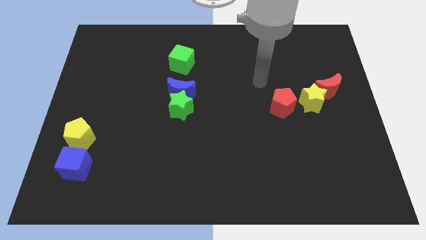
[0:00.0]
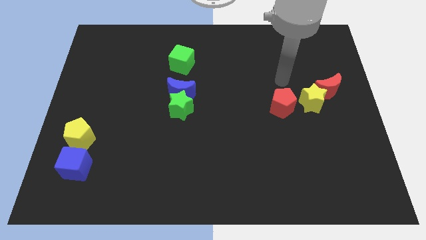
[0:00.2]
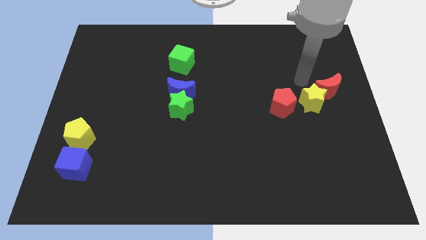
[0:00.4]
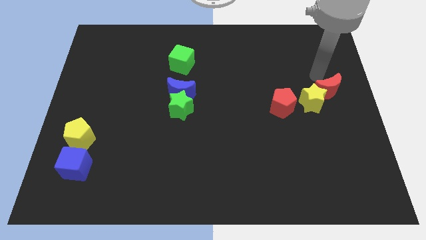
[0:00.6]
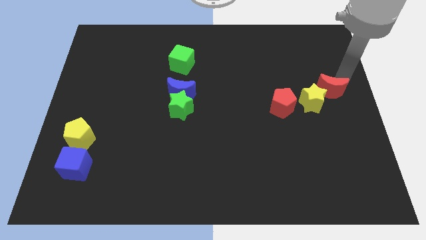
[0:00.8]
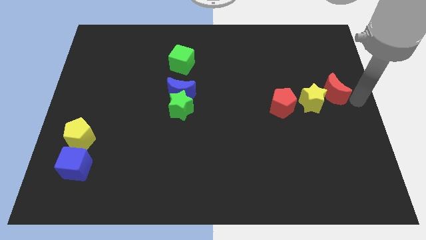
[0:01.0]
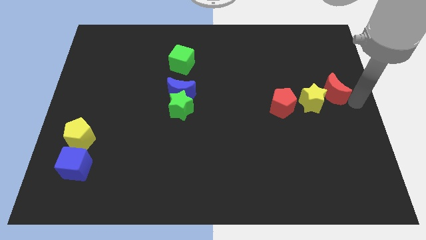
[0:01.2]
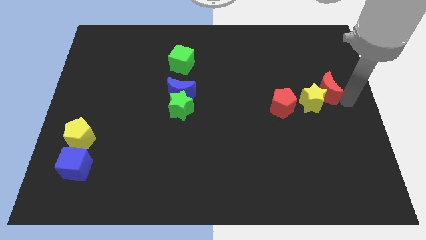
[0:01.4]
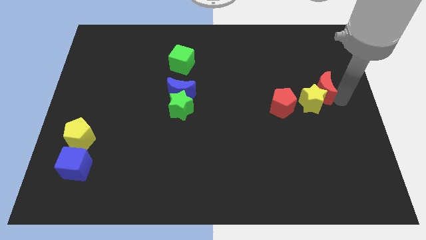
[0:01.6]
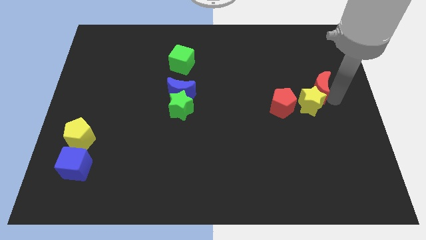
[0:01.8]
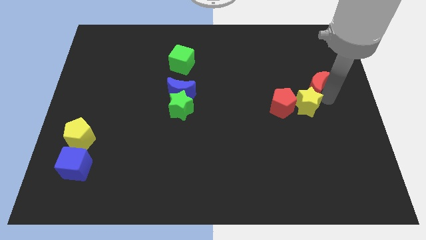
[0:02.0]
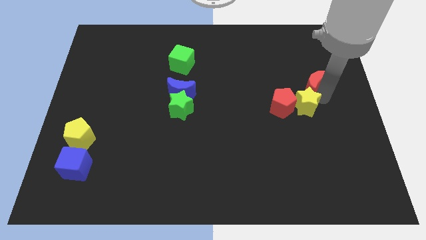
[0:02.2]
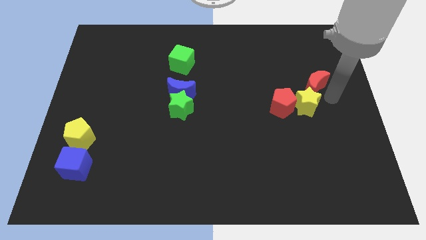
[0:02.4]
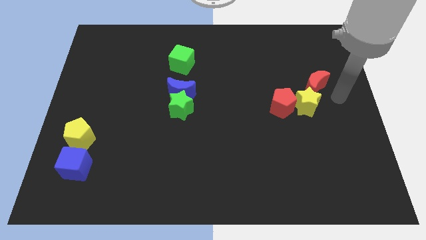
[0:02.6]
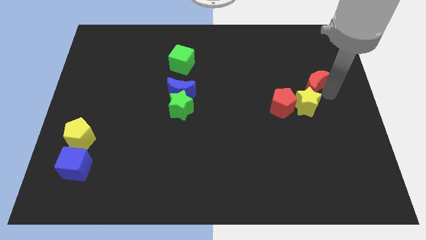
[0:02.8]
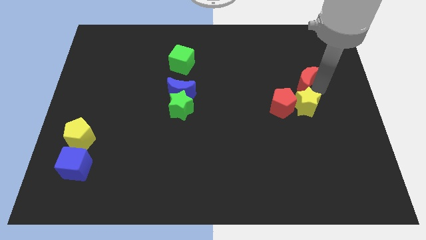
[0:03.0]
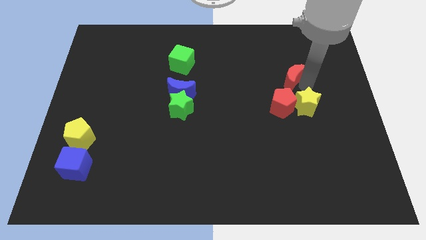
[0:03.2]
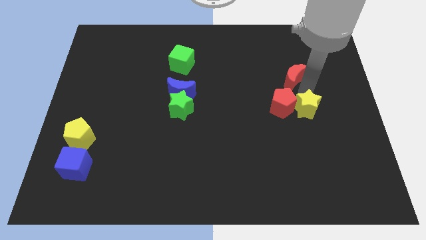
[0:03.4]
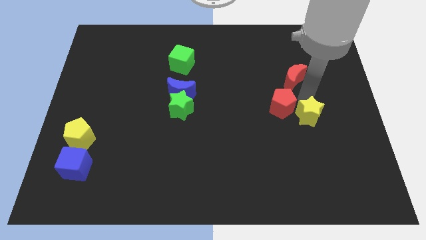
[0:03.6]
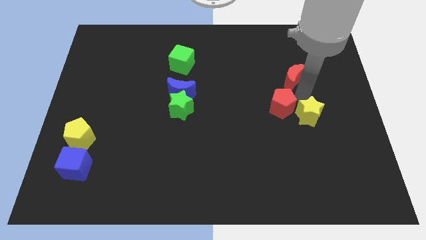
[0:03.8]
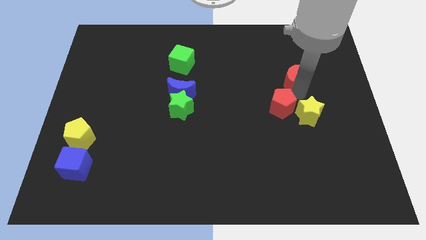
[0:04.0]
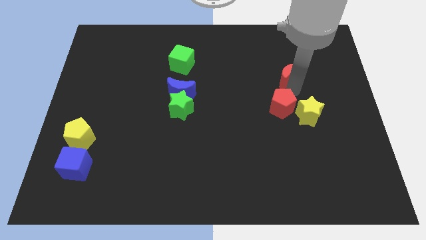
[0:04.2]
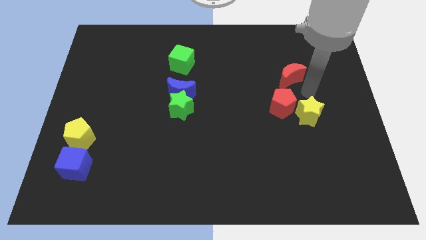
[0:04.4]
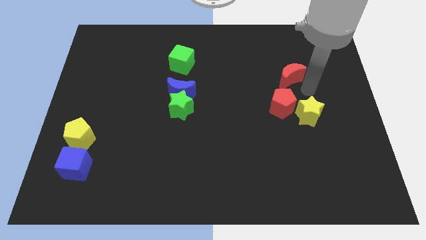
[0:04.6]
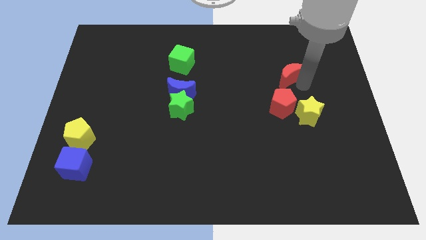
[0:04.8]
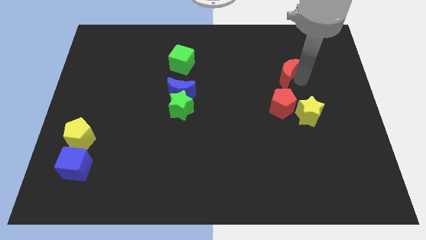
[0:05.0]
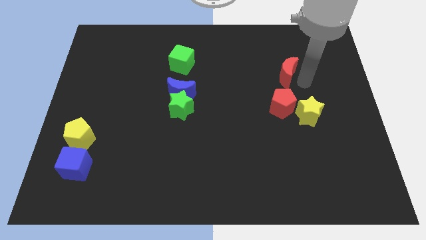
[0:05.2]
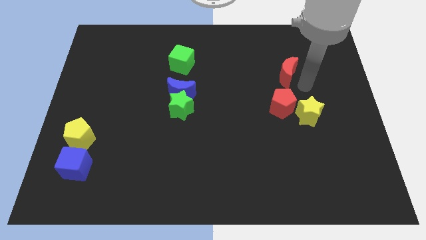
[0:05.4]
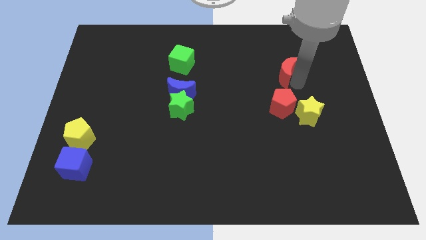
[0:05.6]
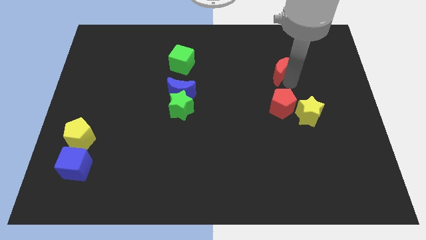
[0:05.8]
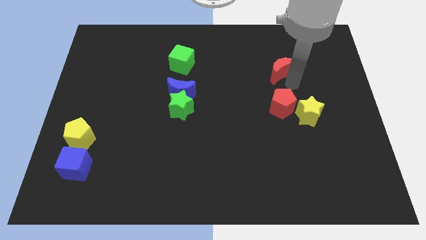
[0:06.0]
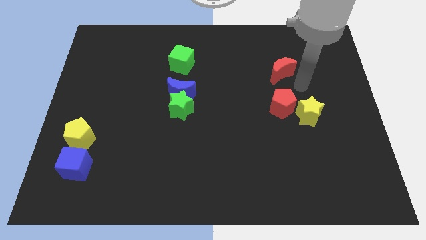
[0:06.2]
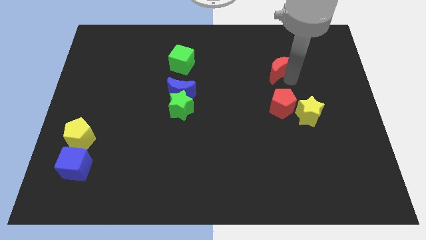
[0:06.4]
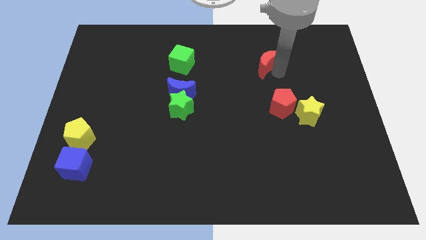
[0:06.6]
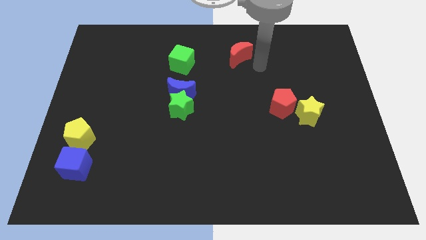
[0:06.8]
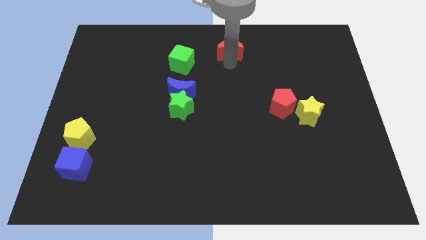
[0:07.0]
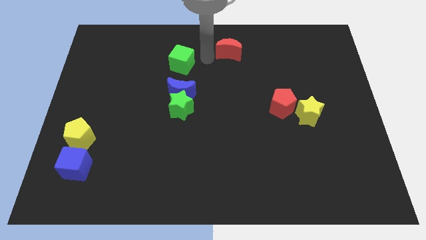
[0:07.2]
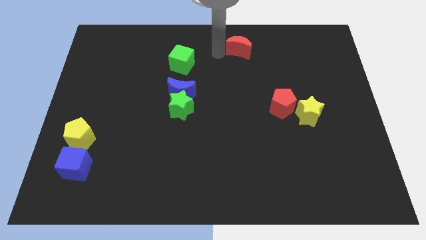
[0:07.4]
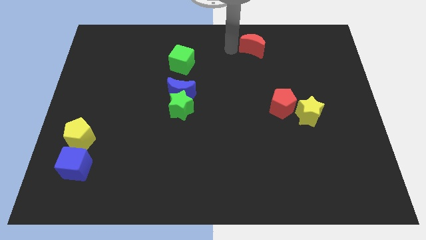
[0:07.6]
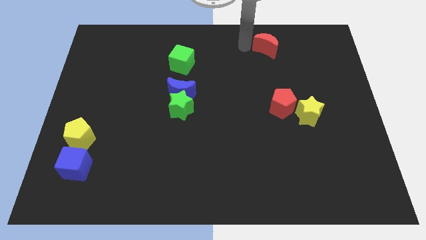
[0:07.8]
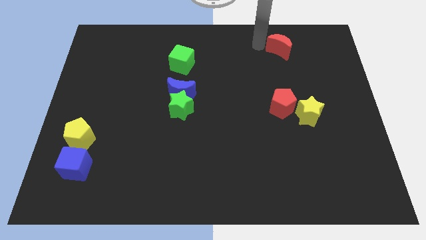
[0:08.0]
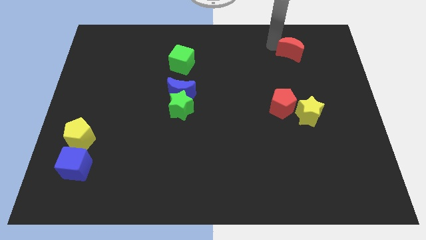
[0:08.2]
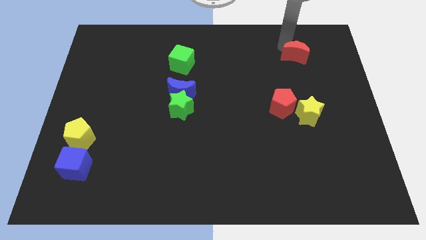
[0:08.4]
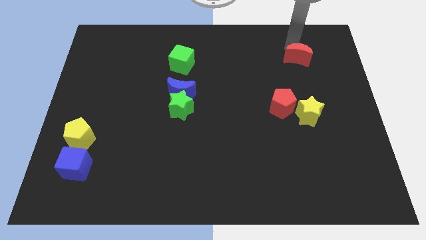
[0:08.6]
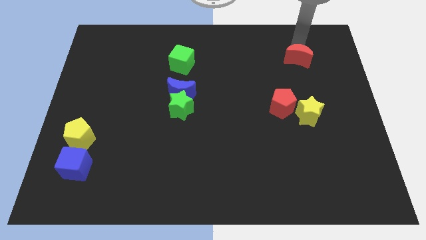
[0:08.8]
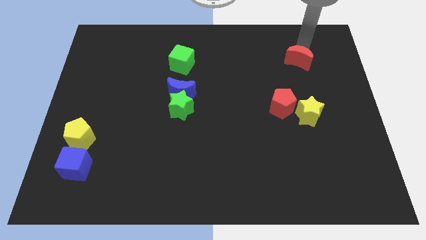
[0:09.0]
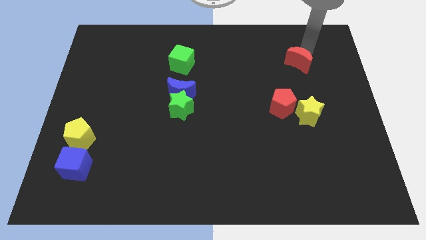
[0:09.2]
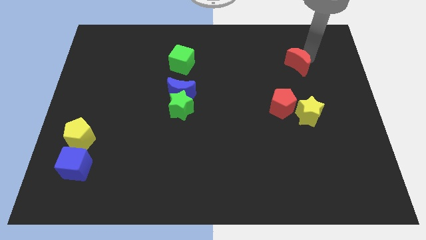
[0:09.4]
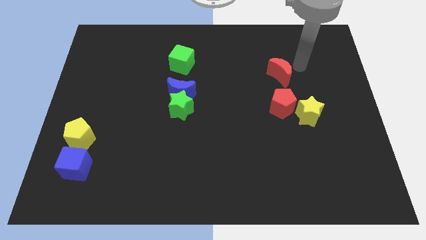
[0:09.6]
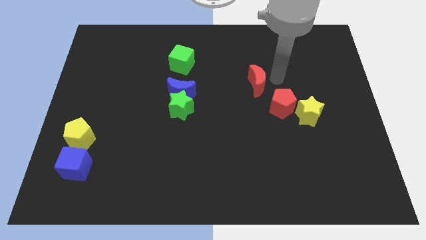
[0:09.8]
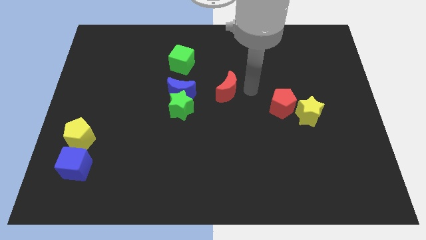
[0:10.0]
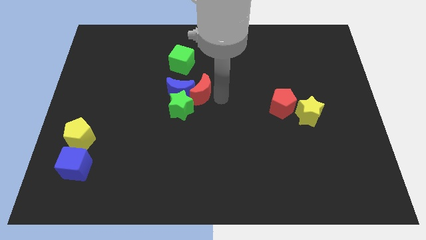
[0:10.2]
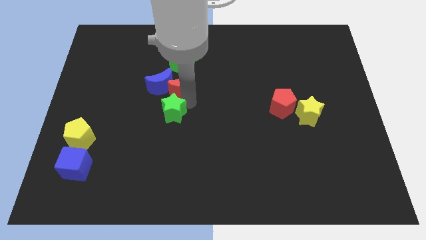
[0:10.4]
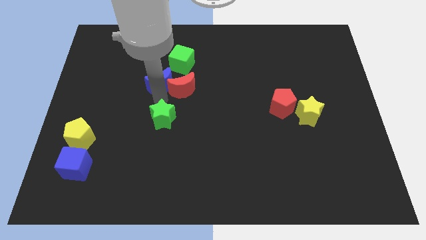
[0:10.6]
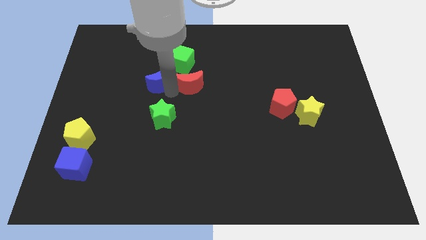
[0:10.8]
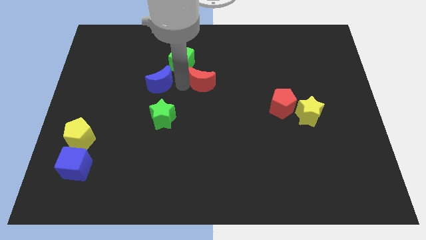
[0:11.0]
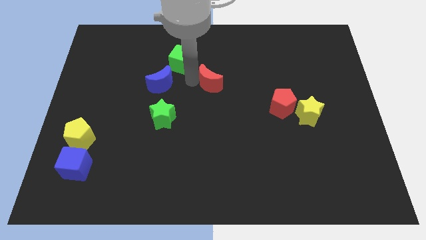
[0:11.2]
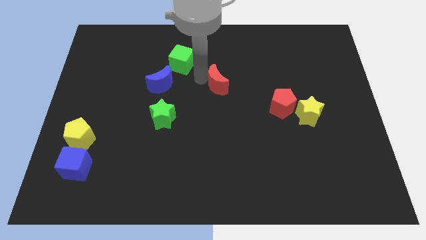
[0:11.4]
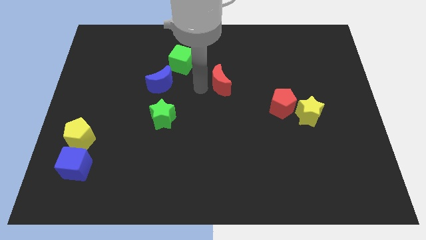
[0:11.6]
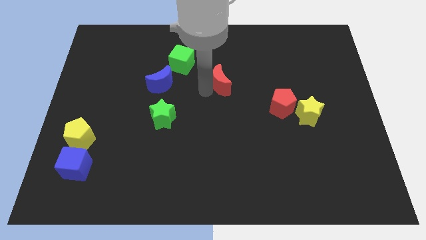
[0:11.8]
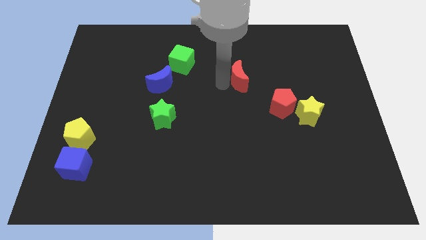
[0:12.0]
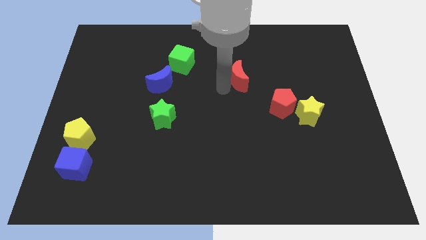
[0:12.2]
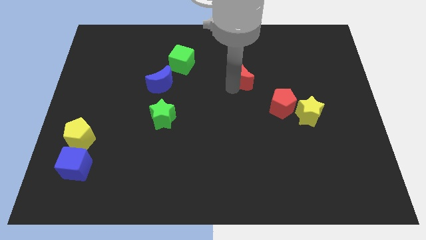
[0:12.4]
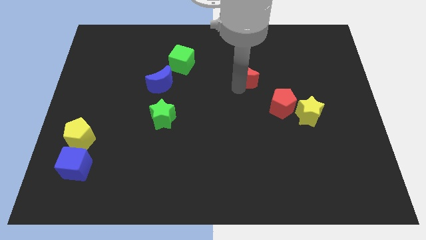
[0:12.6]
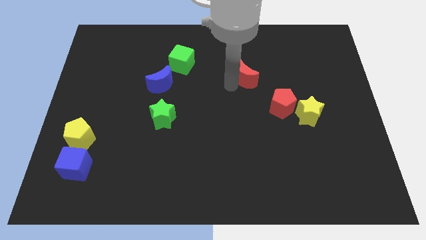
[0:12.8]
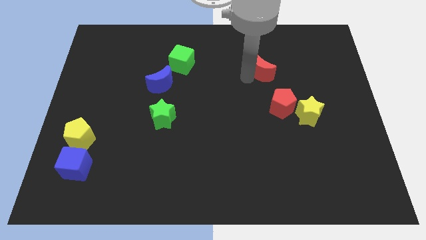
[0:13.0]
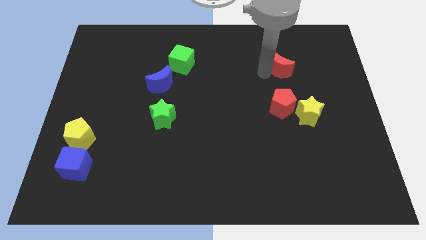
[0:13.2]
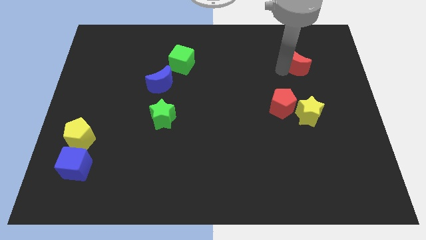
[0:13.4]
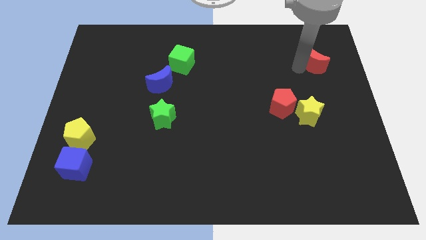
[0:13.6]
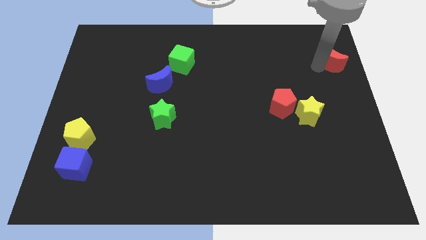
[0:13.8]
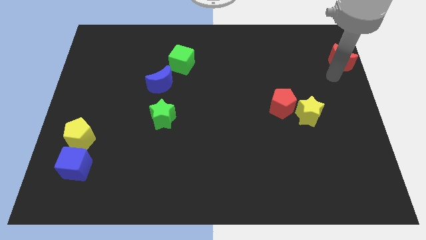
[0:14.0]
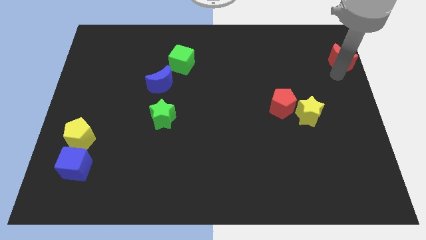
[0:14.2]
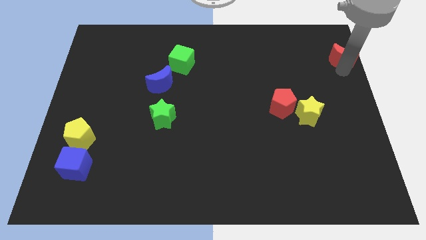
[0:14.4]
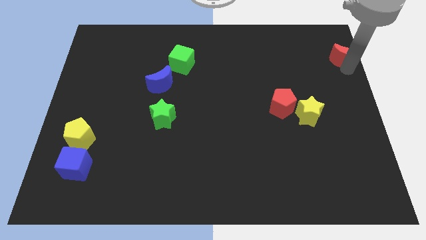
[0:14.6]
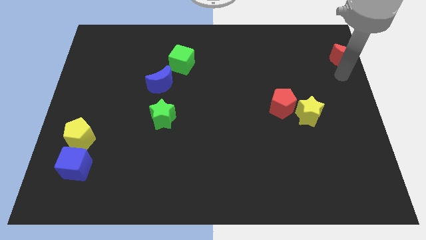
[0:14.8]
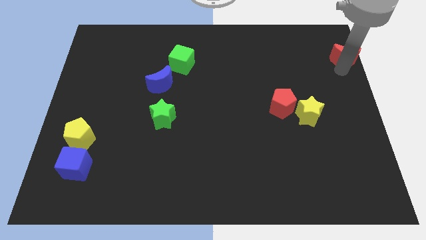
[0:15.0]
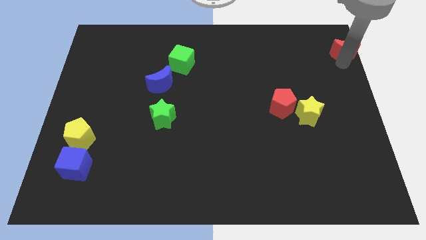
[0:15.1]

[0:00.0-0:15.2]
move the red moon to the top right corner
